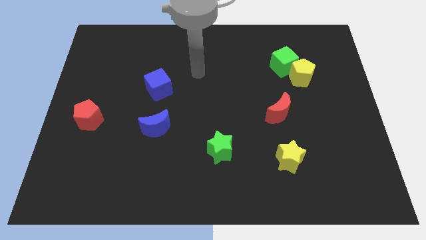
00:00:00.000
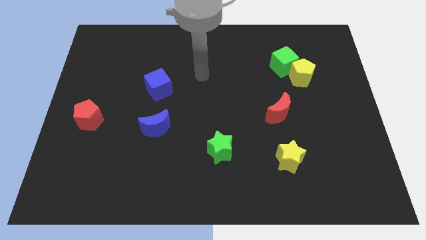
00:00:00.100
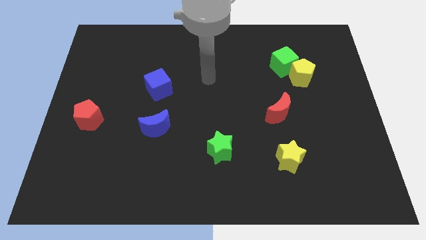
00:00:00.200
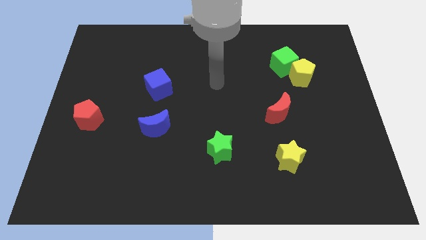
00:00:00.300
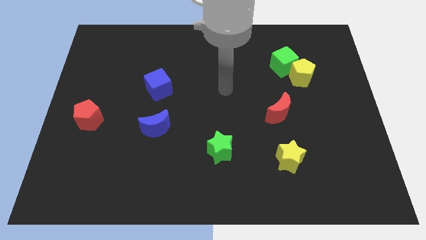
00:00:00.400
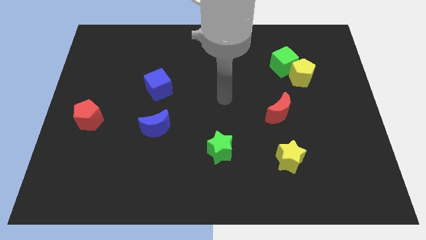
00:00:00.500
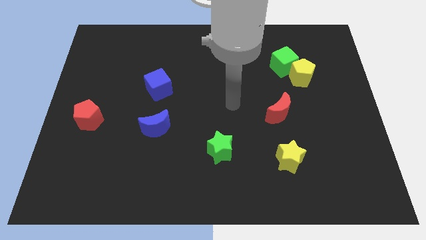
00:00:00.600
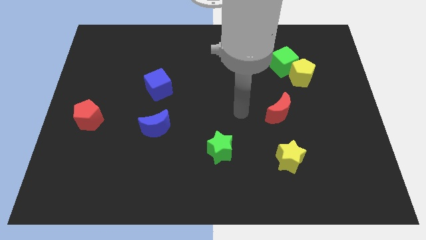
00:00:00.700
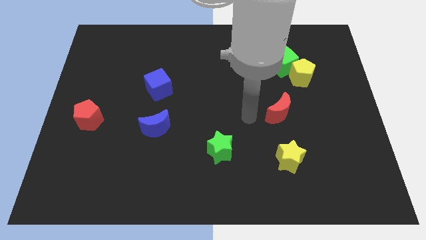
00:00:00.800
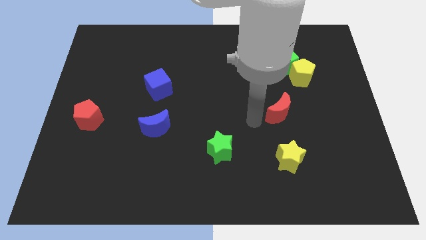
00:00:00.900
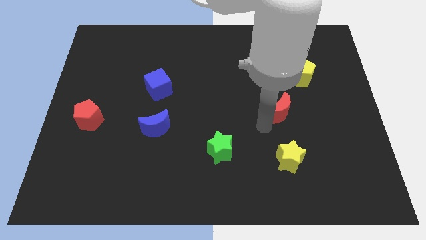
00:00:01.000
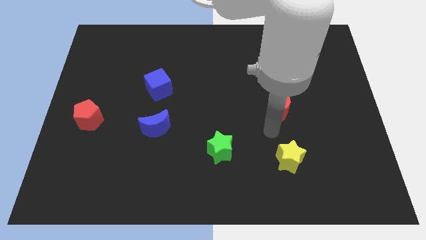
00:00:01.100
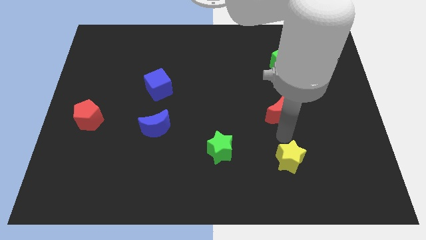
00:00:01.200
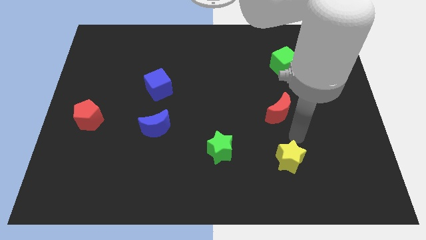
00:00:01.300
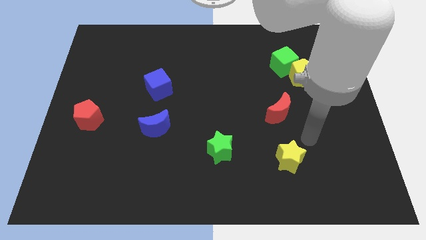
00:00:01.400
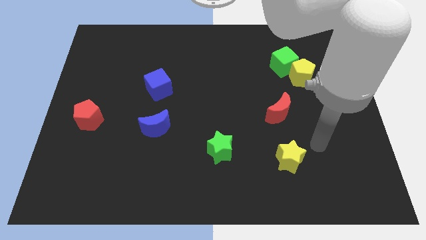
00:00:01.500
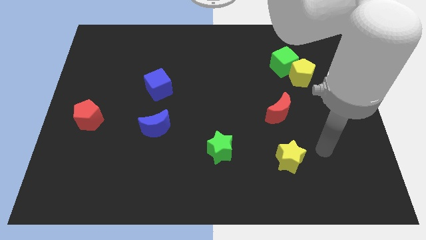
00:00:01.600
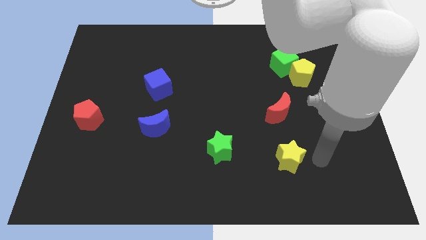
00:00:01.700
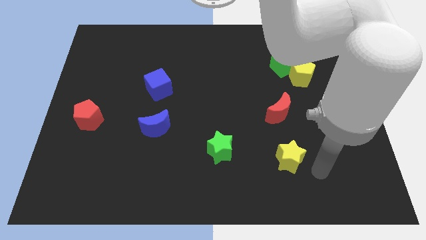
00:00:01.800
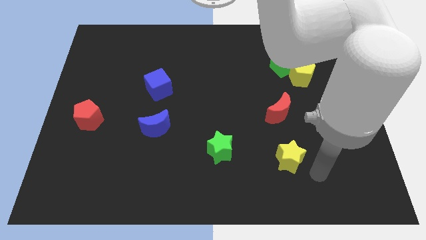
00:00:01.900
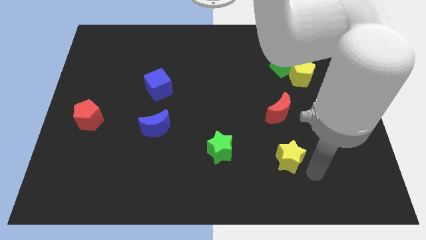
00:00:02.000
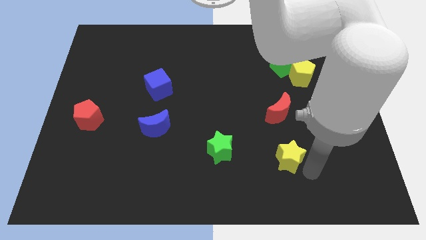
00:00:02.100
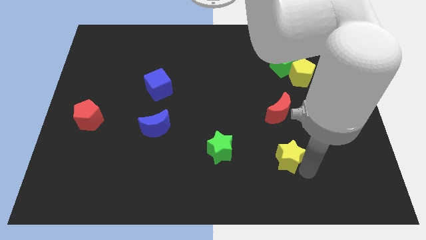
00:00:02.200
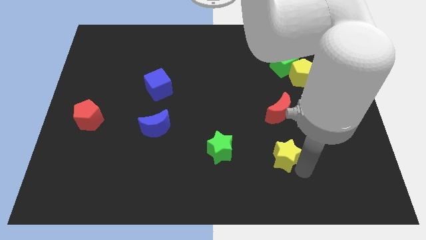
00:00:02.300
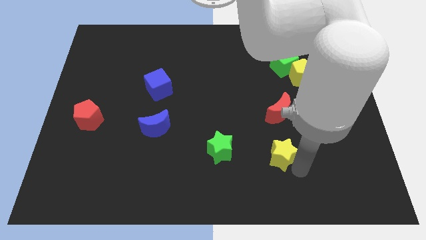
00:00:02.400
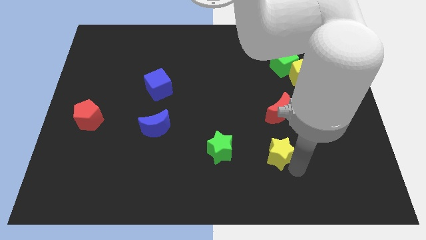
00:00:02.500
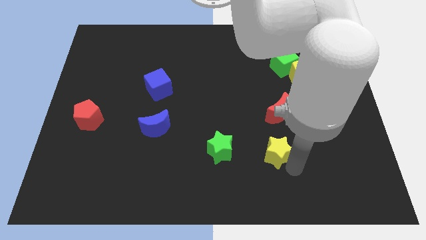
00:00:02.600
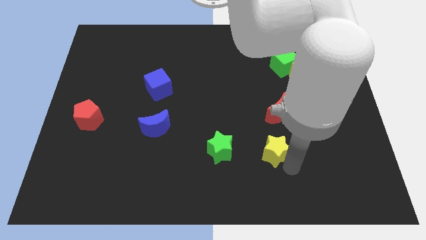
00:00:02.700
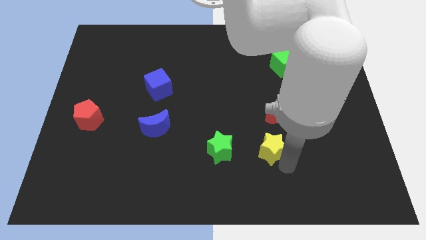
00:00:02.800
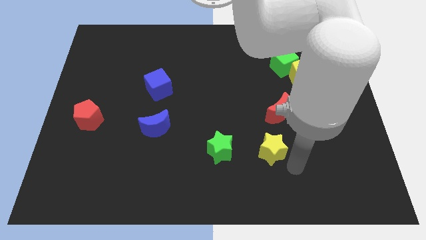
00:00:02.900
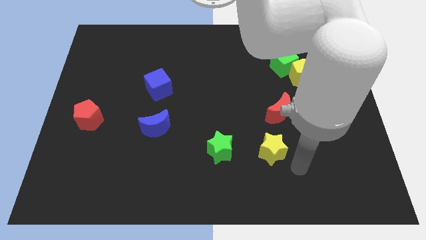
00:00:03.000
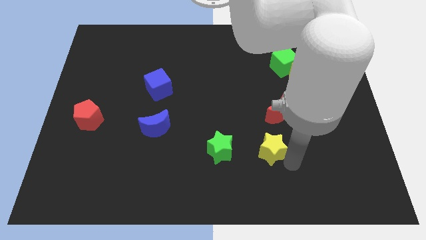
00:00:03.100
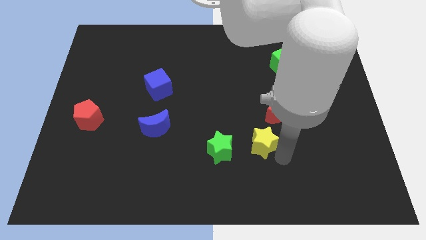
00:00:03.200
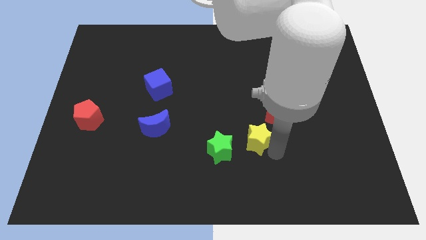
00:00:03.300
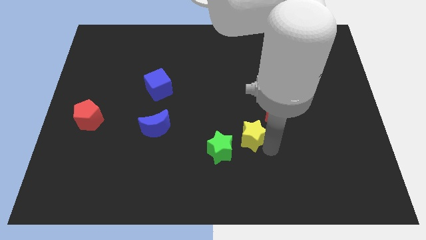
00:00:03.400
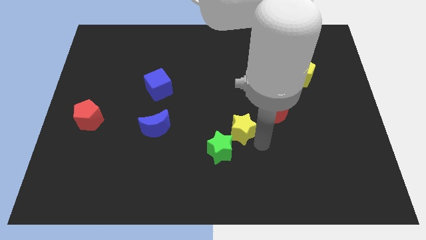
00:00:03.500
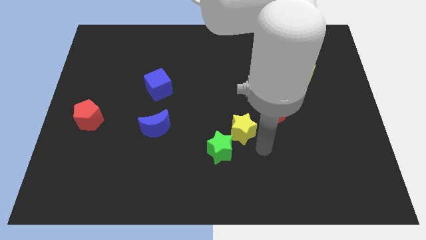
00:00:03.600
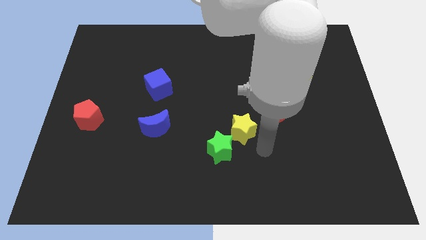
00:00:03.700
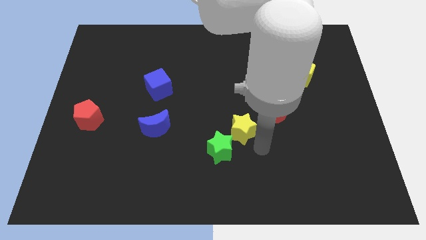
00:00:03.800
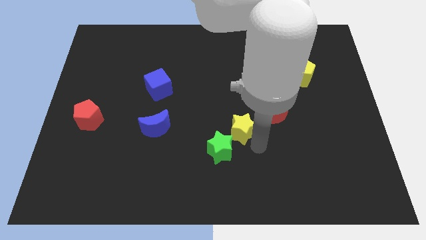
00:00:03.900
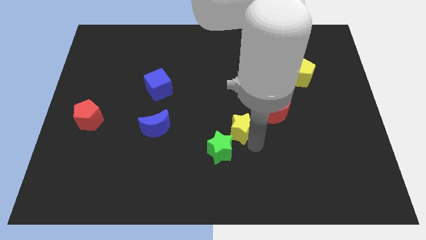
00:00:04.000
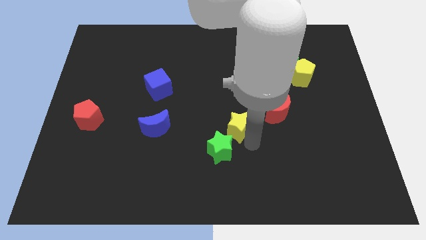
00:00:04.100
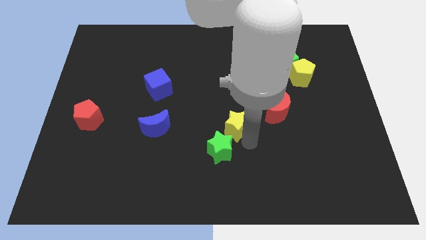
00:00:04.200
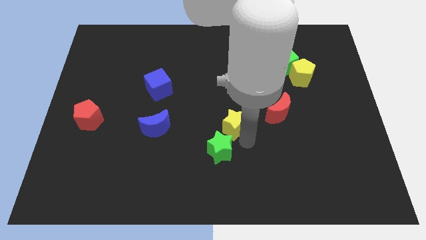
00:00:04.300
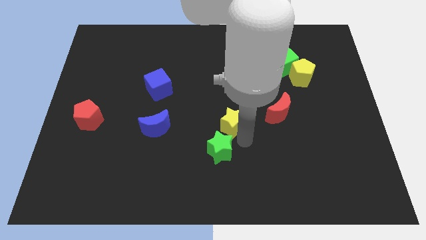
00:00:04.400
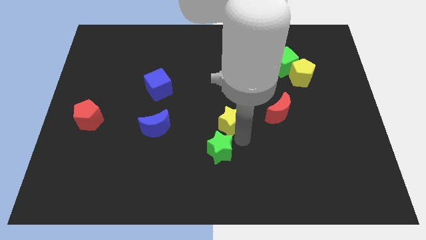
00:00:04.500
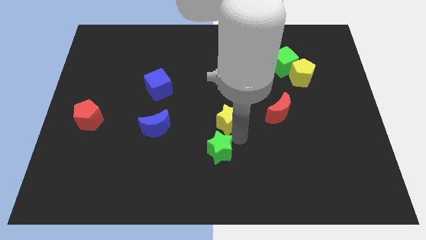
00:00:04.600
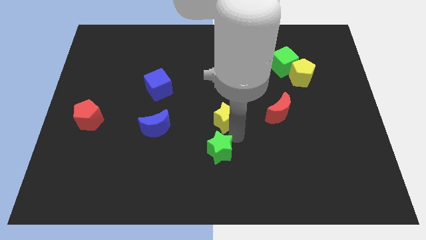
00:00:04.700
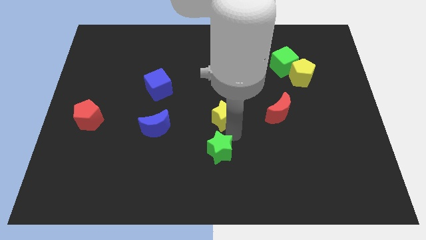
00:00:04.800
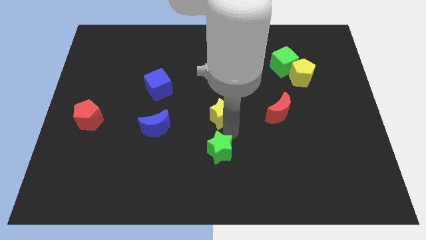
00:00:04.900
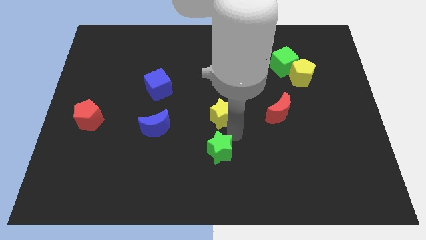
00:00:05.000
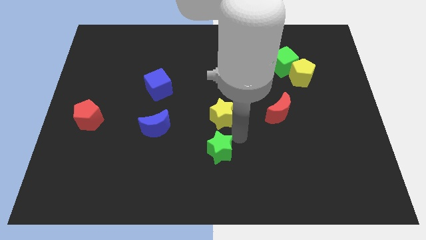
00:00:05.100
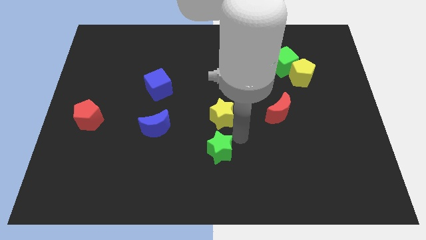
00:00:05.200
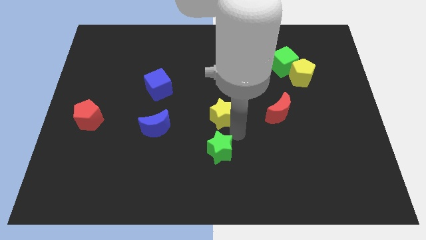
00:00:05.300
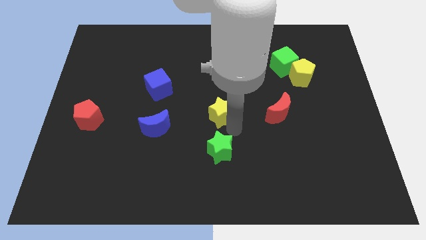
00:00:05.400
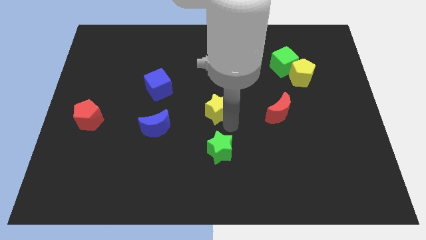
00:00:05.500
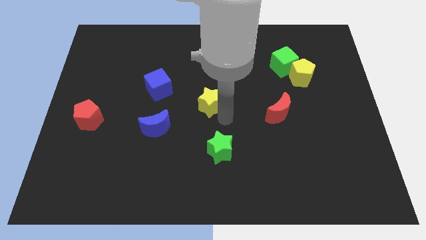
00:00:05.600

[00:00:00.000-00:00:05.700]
move the yellow star upwards and left

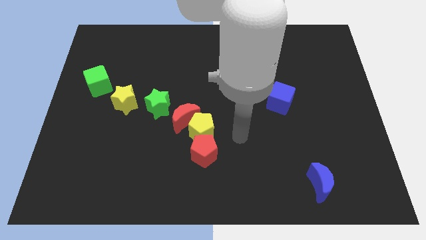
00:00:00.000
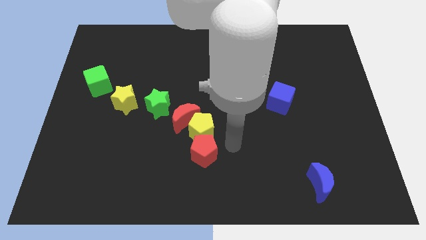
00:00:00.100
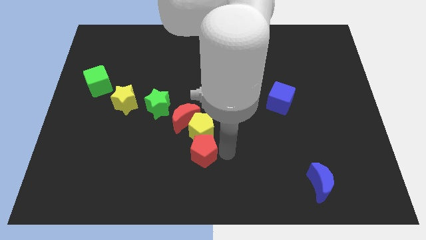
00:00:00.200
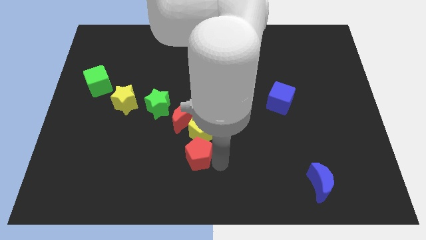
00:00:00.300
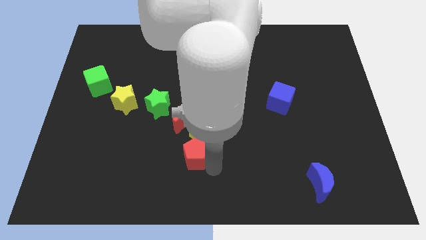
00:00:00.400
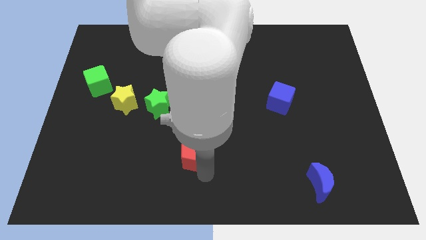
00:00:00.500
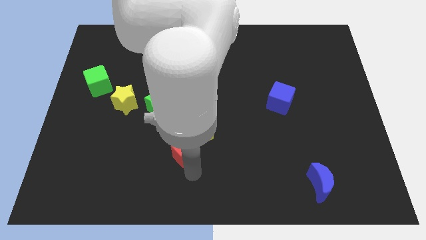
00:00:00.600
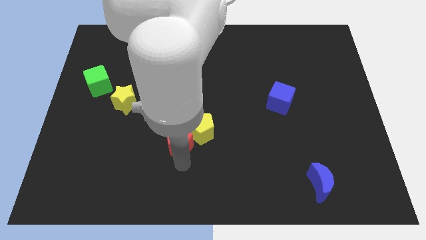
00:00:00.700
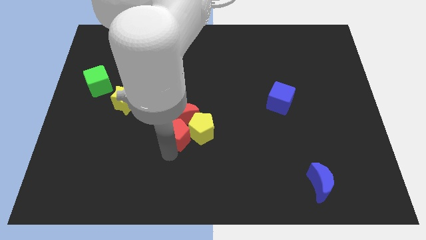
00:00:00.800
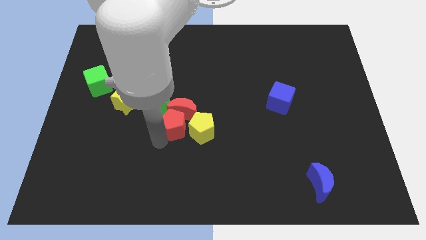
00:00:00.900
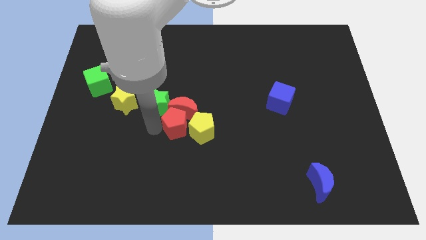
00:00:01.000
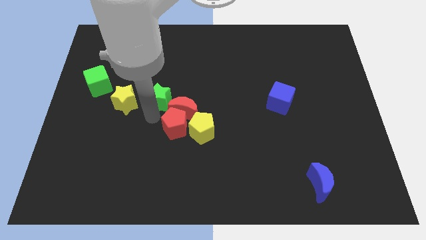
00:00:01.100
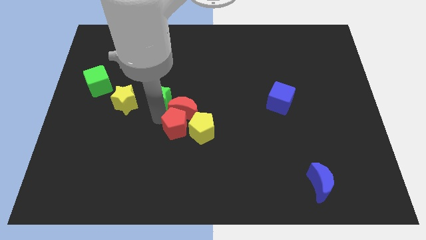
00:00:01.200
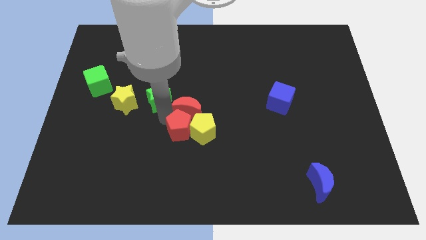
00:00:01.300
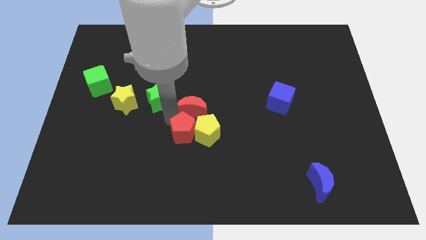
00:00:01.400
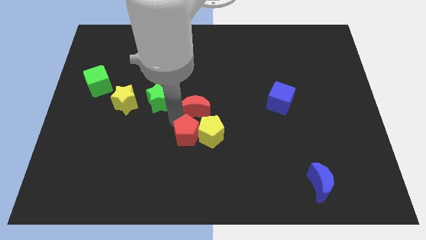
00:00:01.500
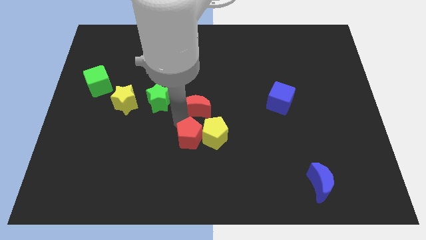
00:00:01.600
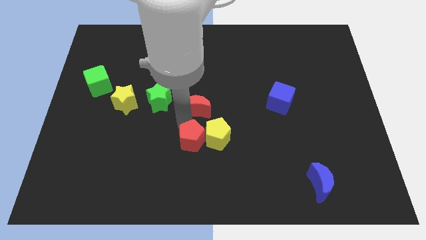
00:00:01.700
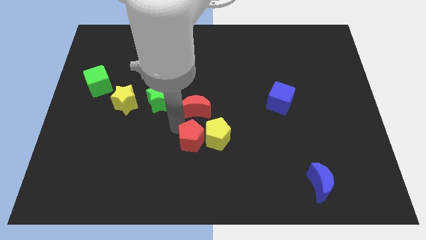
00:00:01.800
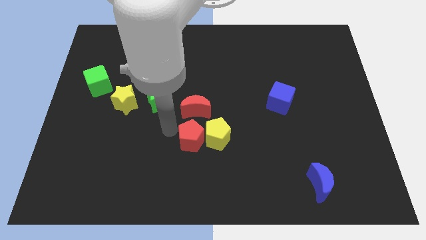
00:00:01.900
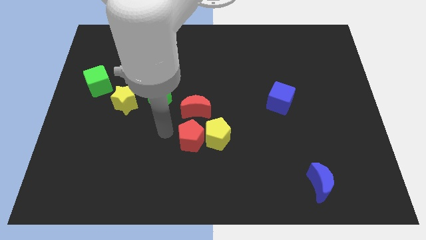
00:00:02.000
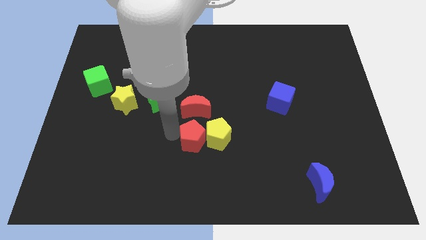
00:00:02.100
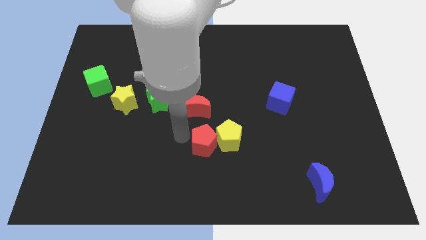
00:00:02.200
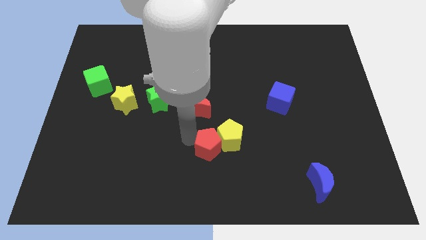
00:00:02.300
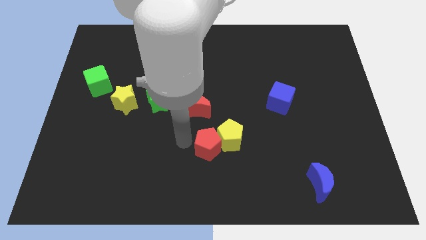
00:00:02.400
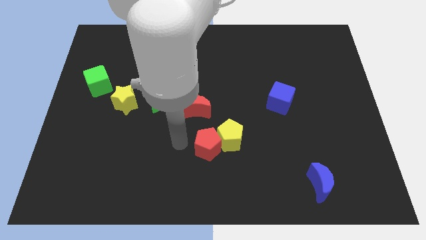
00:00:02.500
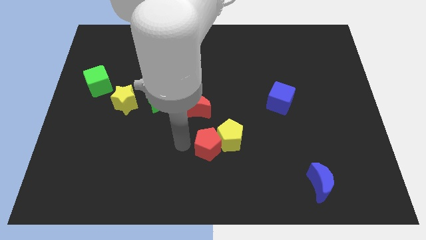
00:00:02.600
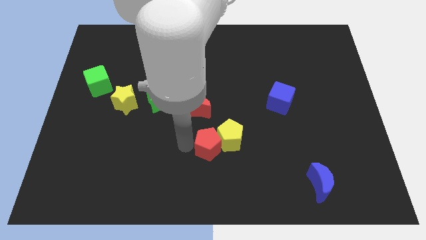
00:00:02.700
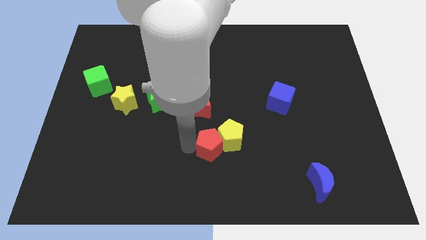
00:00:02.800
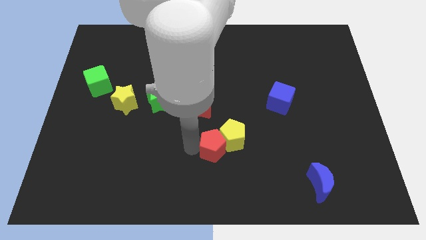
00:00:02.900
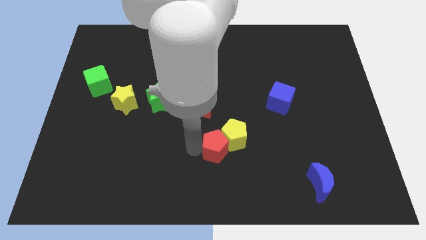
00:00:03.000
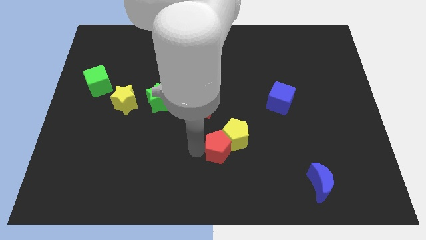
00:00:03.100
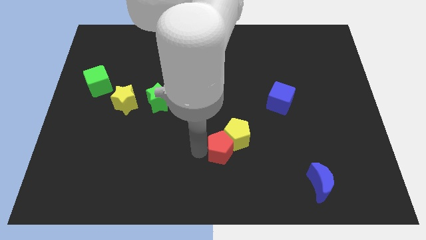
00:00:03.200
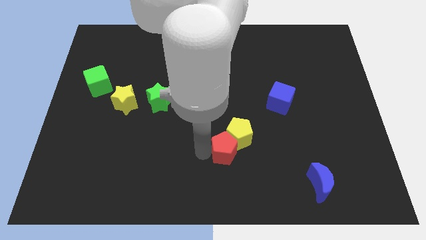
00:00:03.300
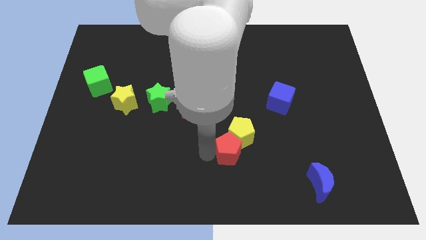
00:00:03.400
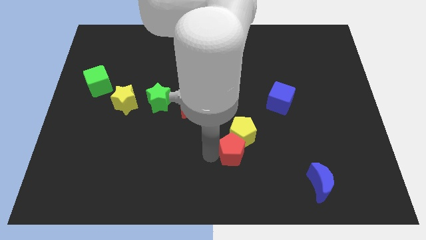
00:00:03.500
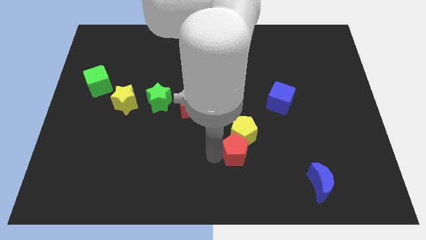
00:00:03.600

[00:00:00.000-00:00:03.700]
move the red pentagon a little bit right
